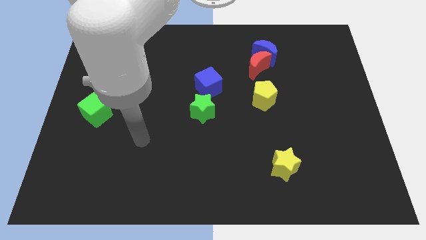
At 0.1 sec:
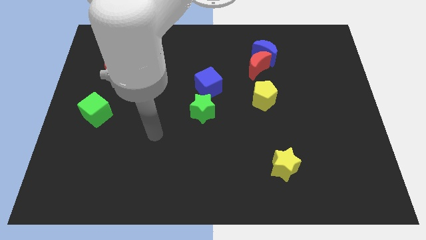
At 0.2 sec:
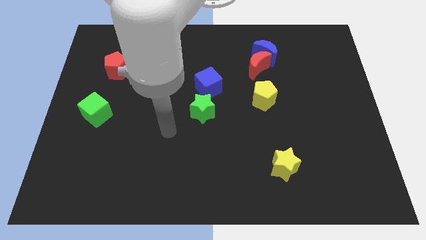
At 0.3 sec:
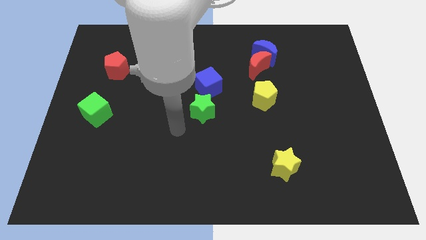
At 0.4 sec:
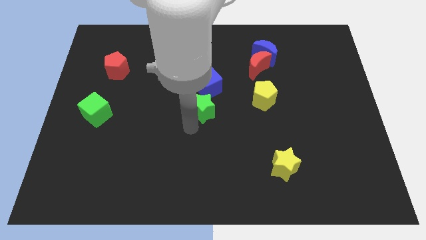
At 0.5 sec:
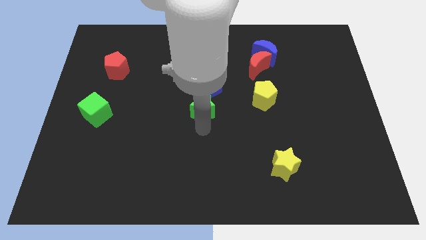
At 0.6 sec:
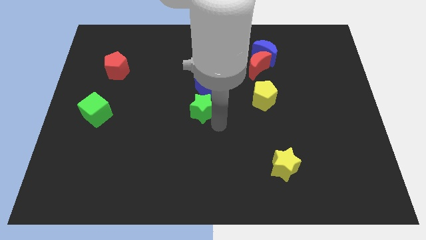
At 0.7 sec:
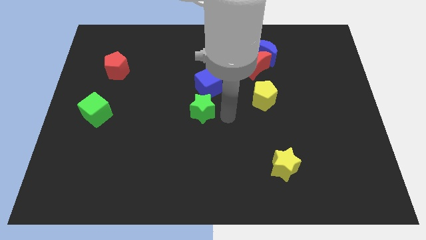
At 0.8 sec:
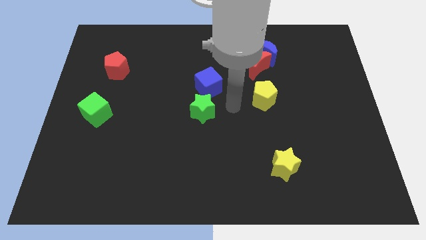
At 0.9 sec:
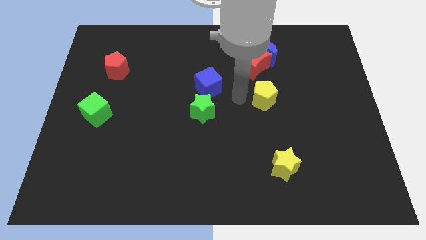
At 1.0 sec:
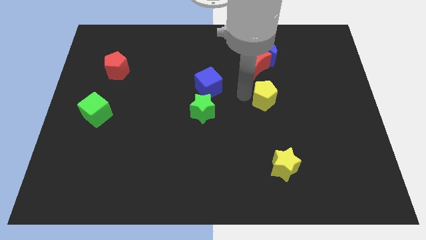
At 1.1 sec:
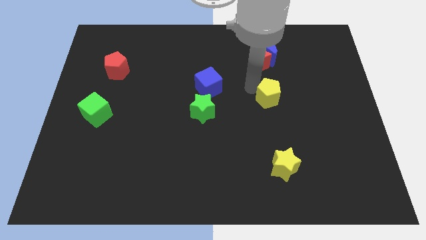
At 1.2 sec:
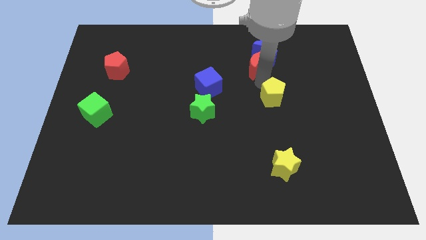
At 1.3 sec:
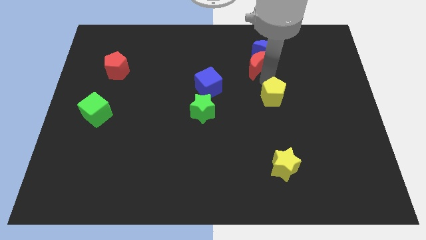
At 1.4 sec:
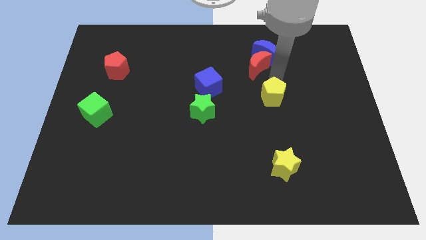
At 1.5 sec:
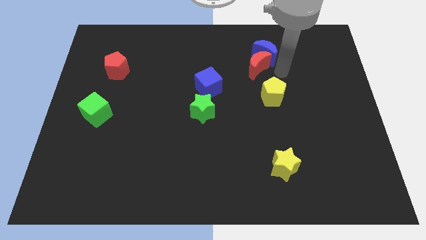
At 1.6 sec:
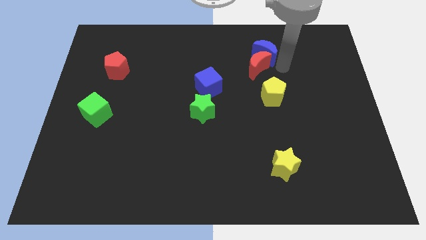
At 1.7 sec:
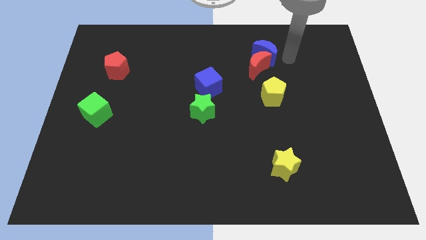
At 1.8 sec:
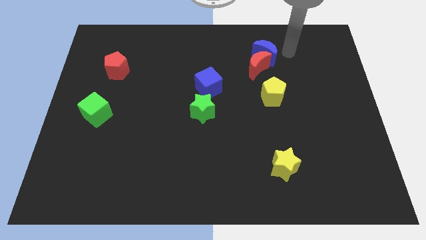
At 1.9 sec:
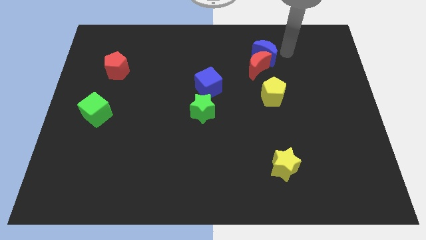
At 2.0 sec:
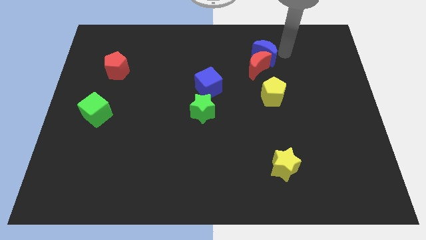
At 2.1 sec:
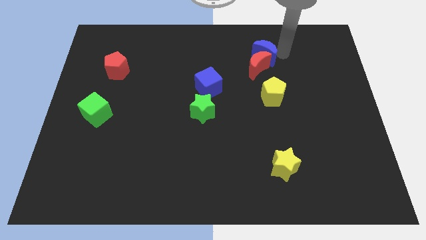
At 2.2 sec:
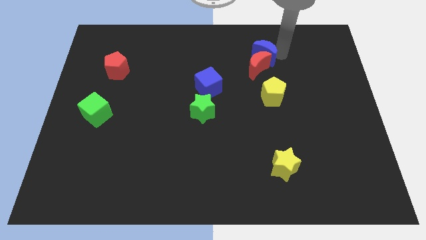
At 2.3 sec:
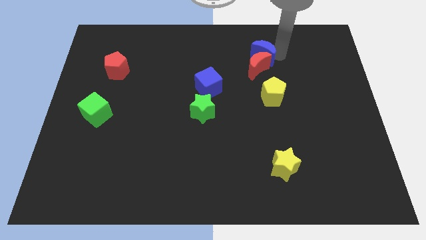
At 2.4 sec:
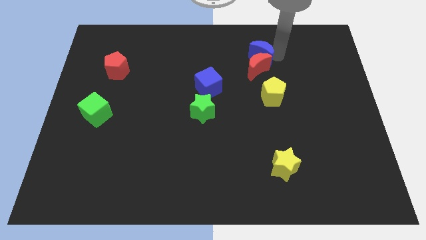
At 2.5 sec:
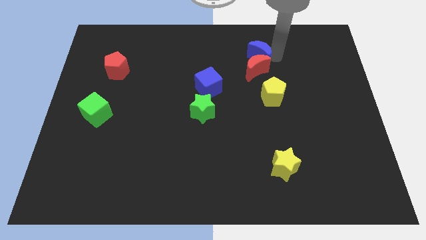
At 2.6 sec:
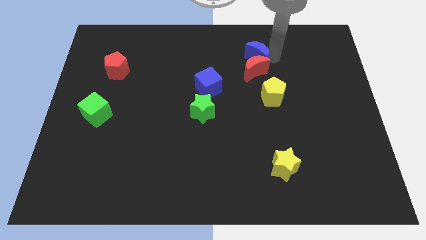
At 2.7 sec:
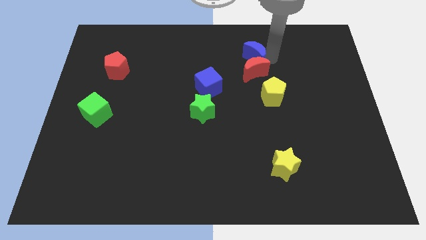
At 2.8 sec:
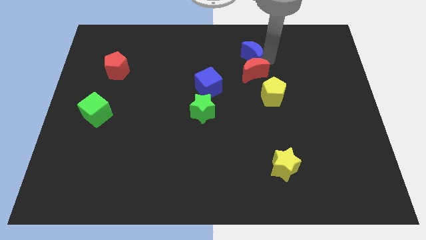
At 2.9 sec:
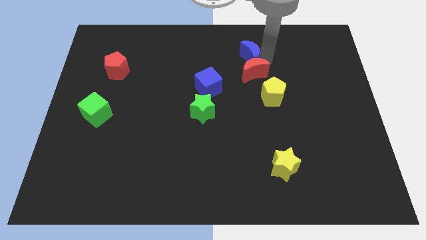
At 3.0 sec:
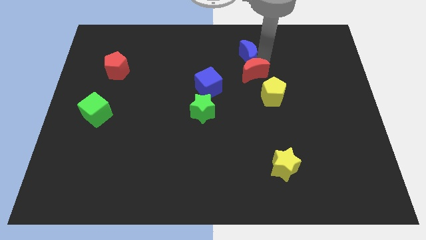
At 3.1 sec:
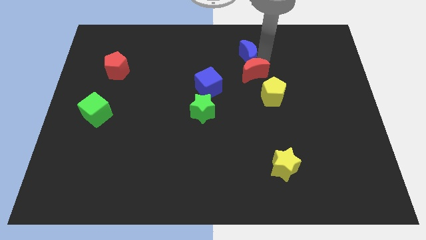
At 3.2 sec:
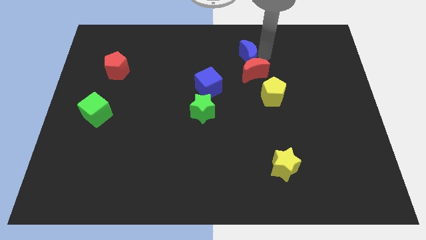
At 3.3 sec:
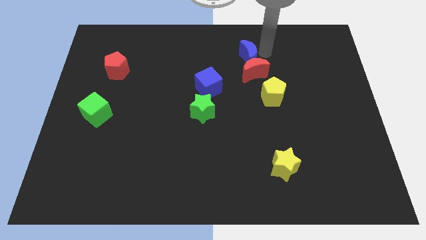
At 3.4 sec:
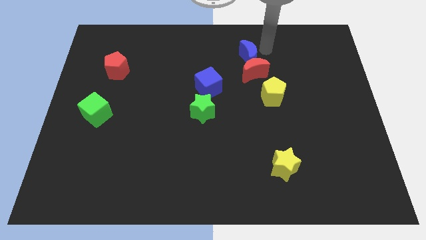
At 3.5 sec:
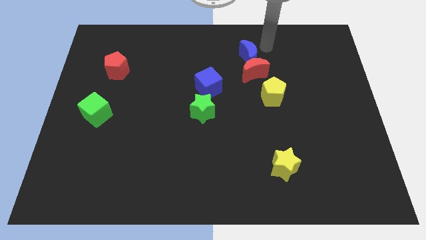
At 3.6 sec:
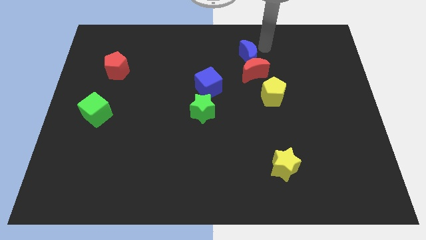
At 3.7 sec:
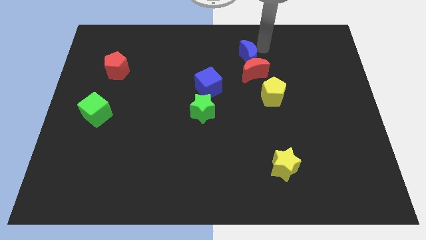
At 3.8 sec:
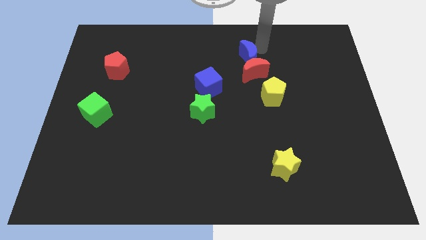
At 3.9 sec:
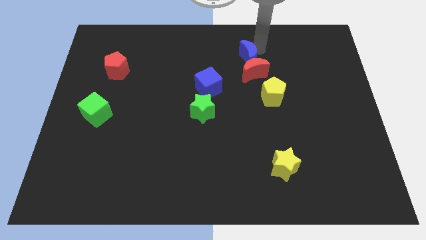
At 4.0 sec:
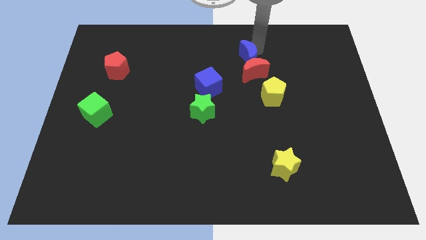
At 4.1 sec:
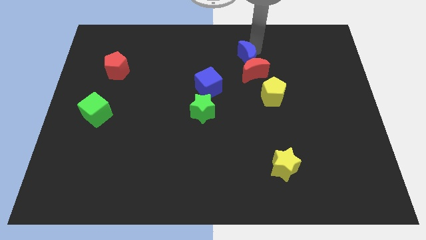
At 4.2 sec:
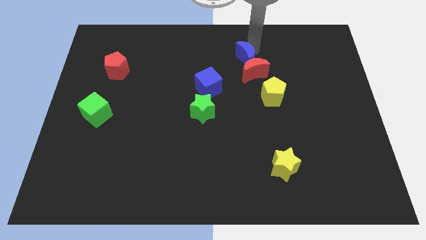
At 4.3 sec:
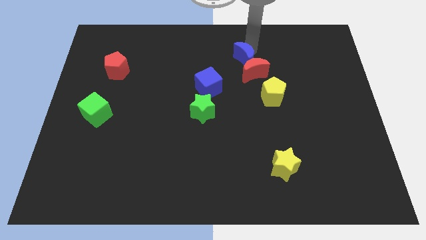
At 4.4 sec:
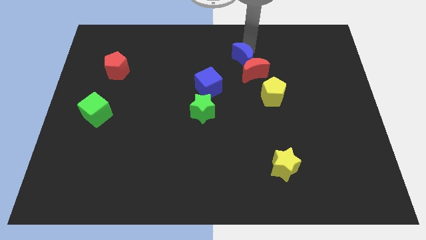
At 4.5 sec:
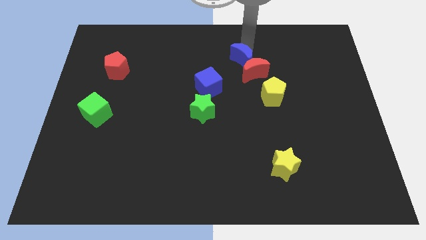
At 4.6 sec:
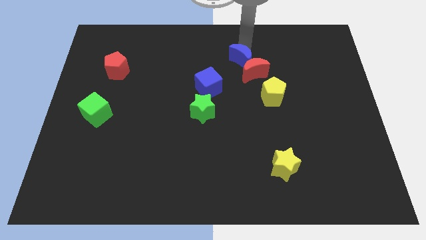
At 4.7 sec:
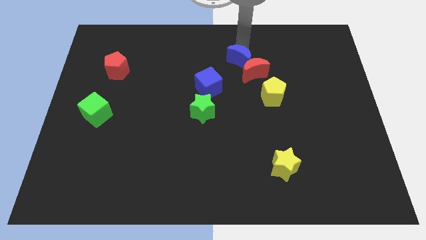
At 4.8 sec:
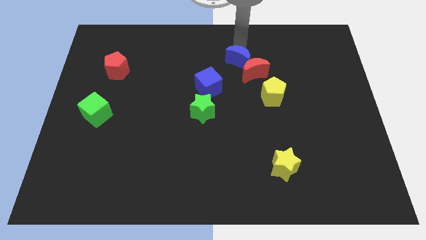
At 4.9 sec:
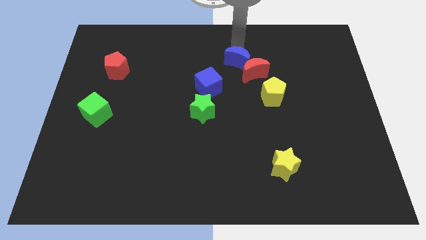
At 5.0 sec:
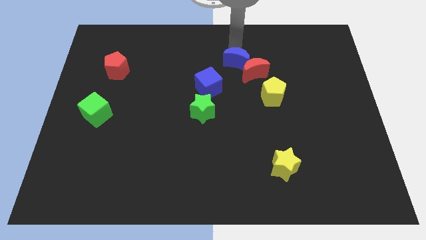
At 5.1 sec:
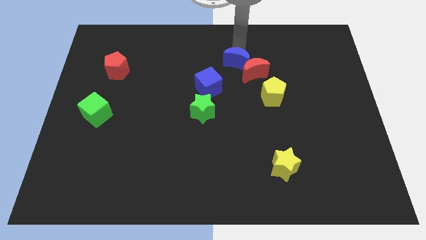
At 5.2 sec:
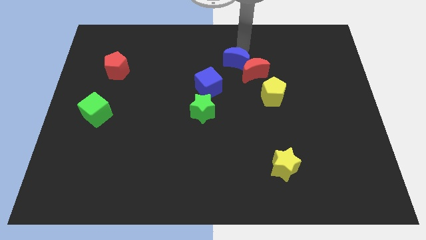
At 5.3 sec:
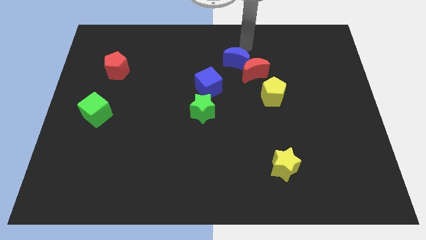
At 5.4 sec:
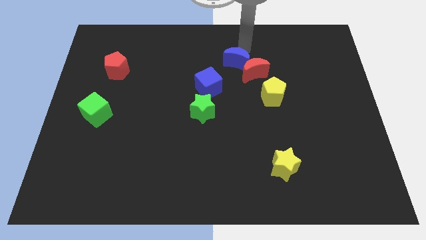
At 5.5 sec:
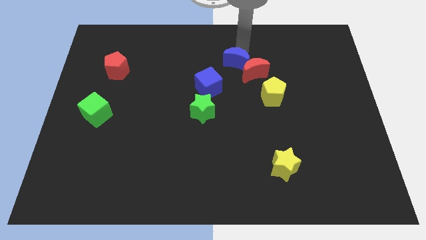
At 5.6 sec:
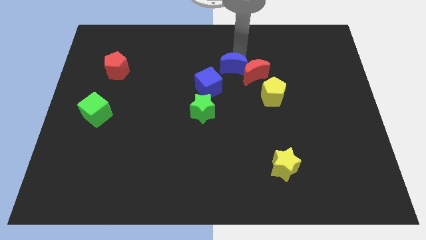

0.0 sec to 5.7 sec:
slide the blue moon to the center

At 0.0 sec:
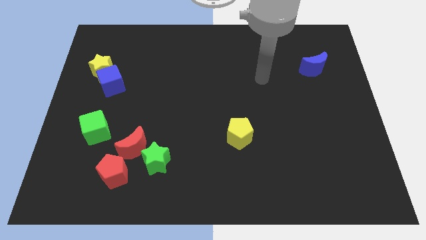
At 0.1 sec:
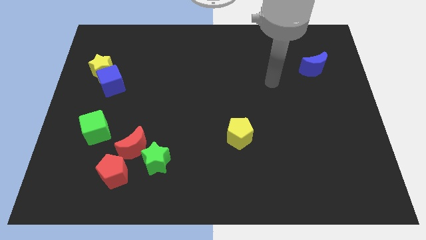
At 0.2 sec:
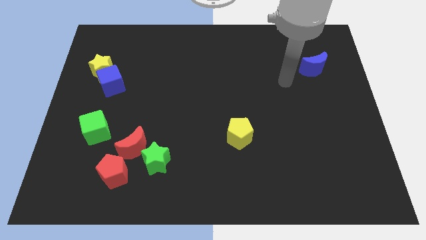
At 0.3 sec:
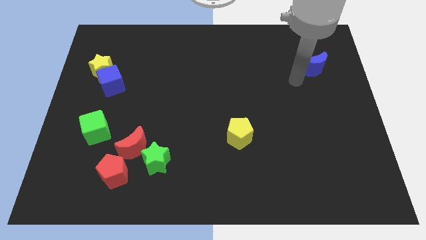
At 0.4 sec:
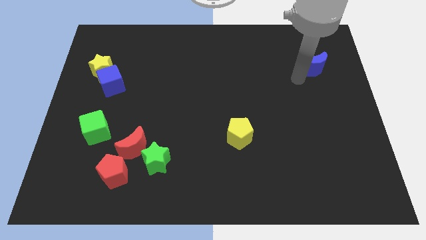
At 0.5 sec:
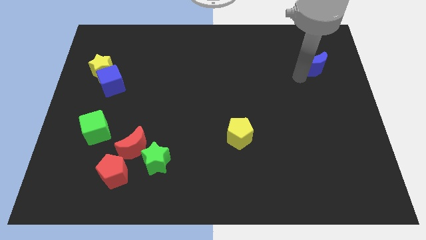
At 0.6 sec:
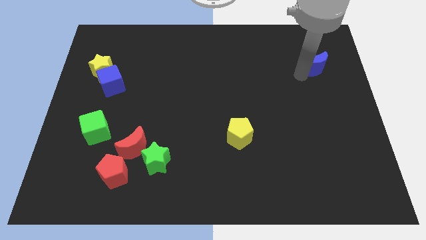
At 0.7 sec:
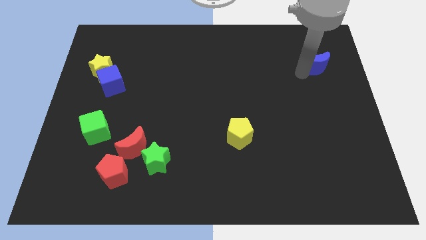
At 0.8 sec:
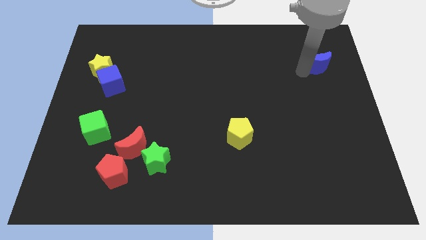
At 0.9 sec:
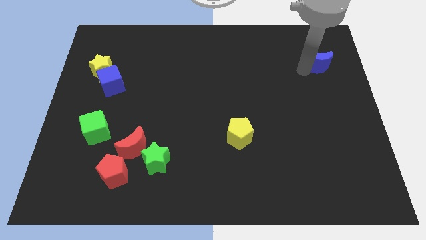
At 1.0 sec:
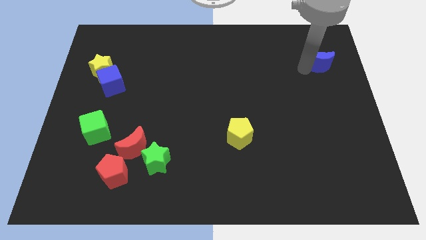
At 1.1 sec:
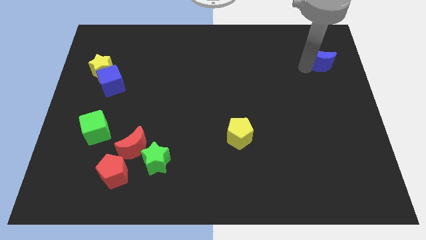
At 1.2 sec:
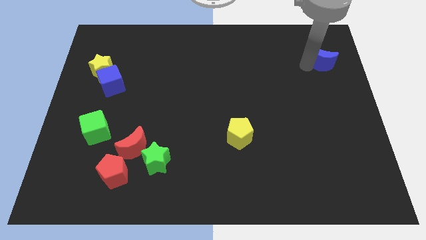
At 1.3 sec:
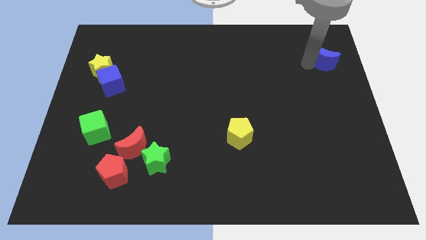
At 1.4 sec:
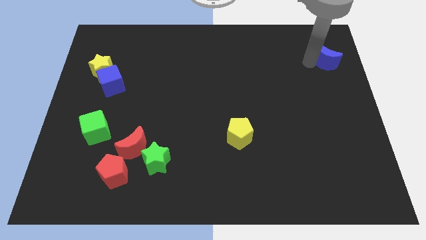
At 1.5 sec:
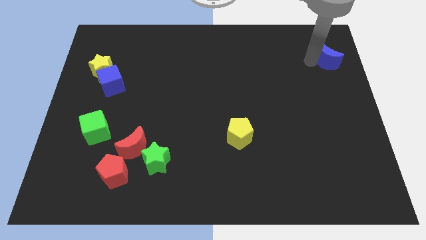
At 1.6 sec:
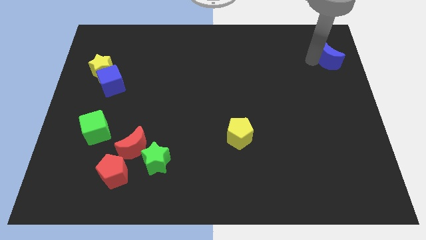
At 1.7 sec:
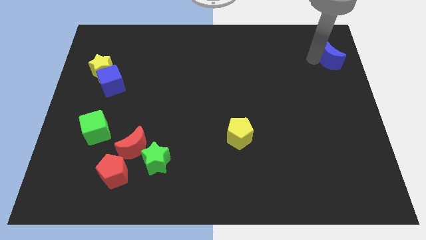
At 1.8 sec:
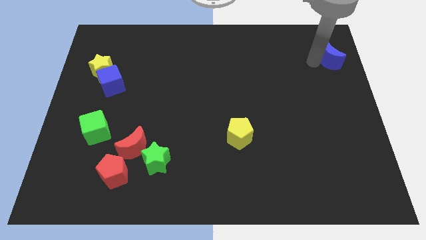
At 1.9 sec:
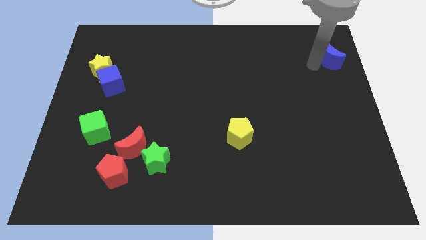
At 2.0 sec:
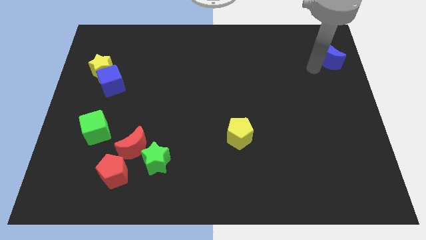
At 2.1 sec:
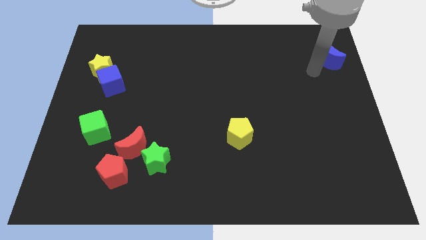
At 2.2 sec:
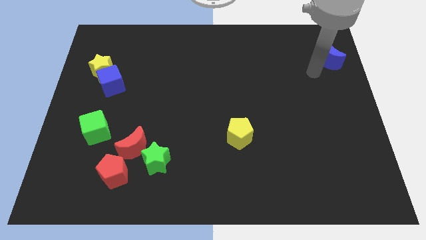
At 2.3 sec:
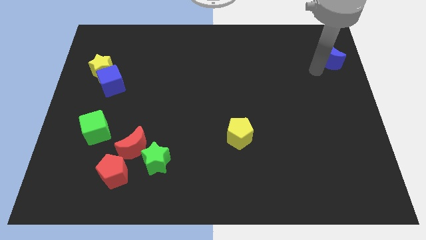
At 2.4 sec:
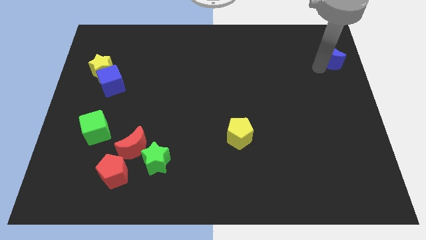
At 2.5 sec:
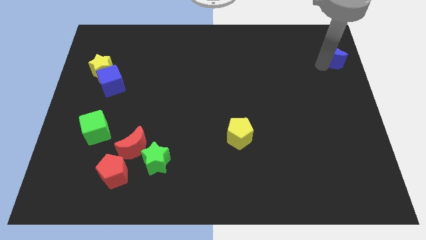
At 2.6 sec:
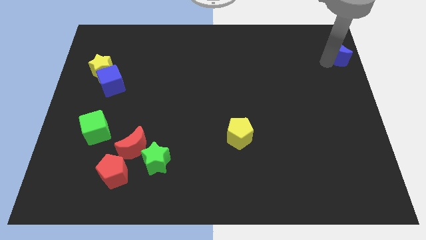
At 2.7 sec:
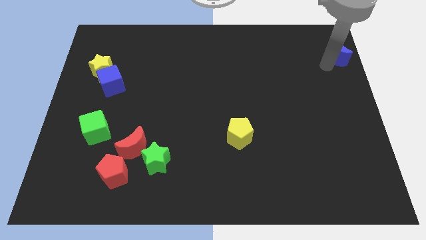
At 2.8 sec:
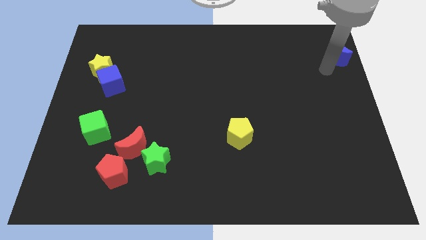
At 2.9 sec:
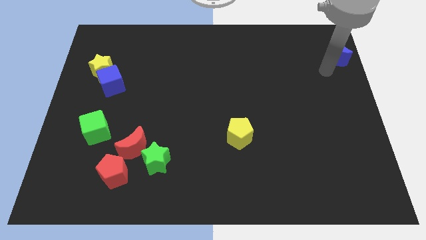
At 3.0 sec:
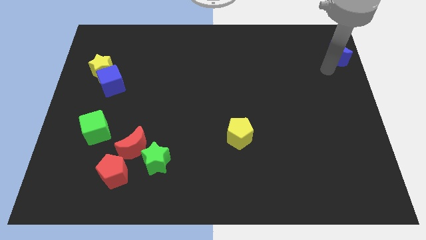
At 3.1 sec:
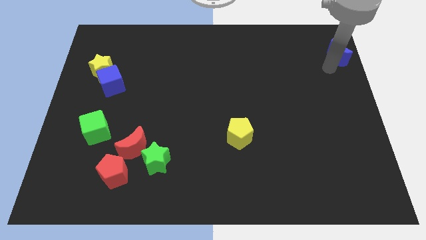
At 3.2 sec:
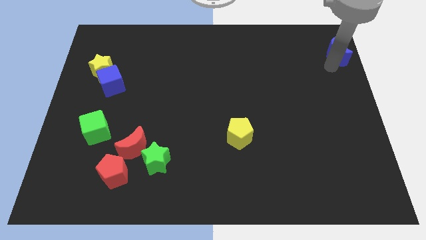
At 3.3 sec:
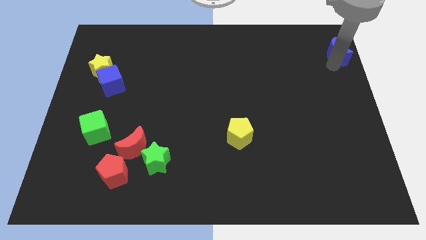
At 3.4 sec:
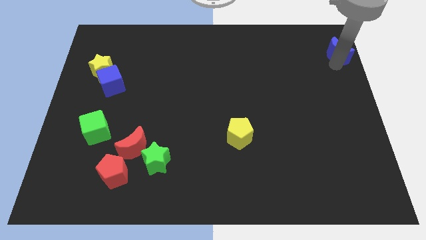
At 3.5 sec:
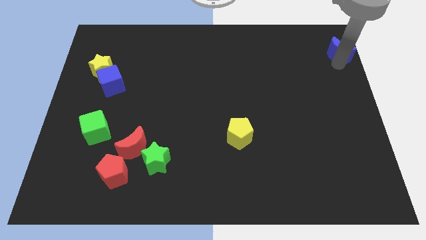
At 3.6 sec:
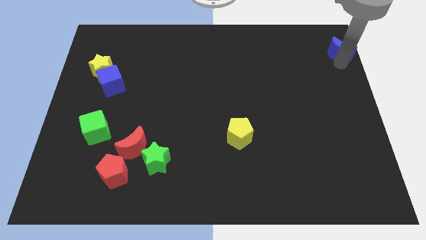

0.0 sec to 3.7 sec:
move the blue moon to the upper right corner
